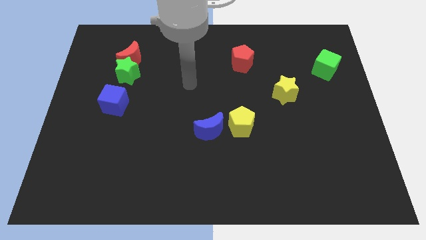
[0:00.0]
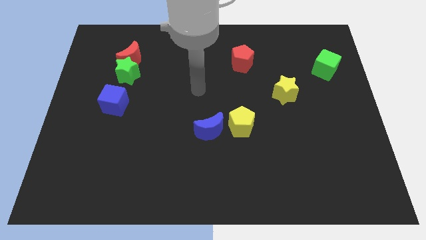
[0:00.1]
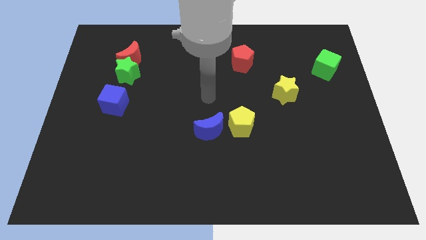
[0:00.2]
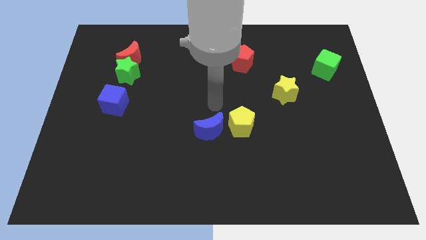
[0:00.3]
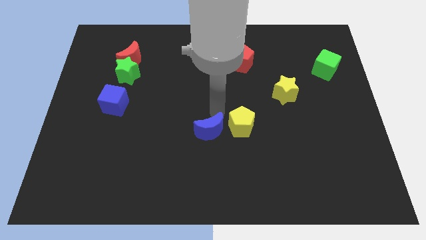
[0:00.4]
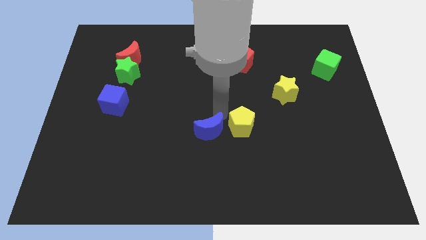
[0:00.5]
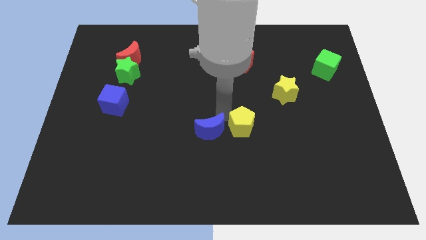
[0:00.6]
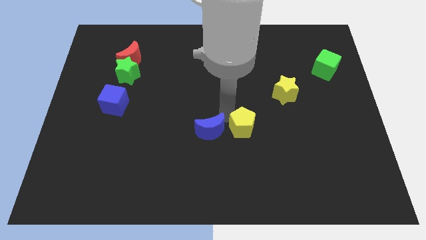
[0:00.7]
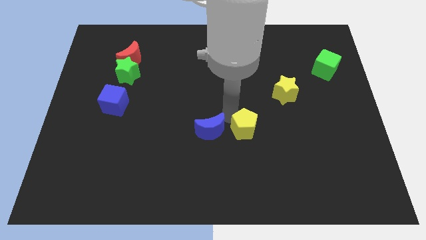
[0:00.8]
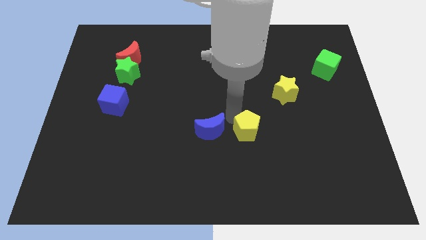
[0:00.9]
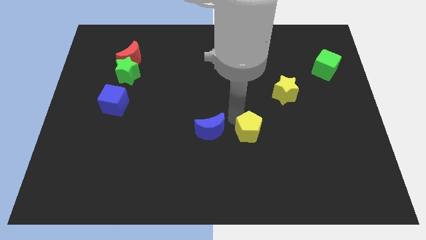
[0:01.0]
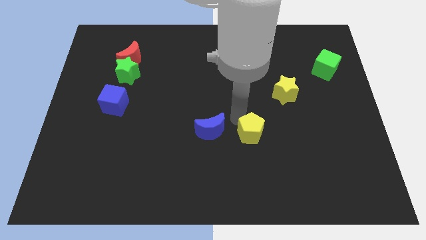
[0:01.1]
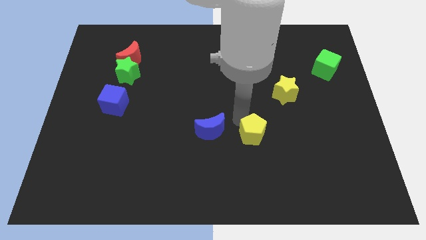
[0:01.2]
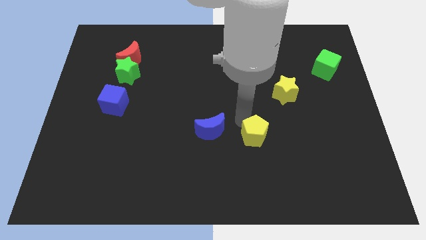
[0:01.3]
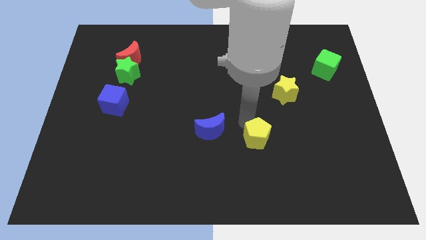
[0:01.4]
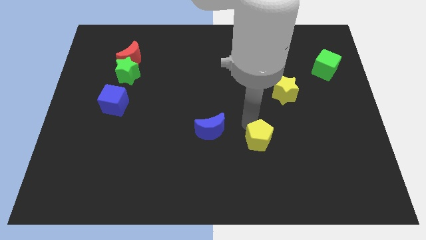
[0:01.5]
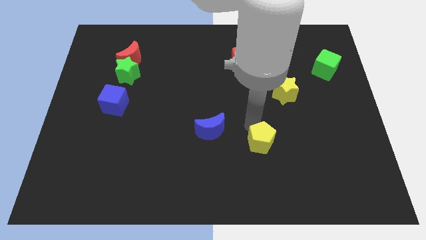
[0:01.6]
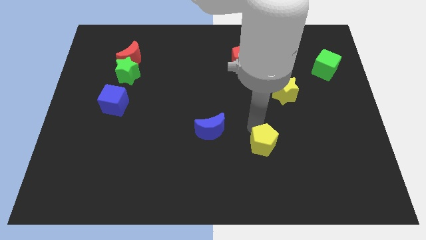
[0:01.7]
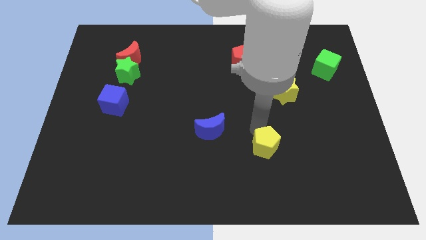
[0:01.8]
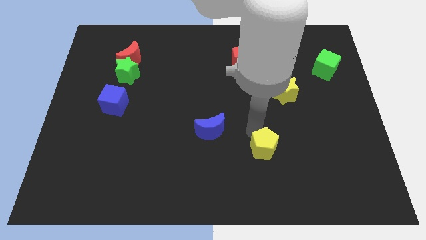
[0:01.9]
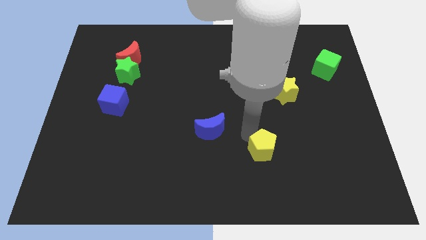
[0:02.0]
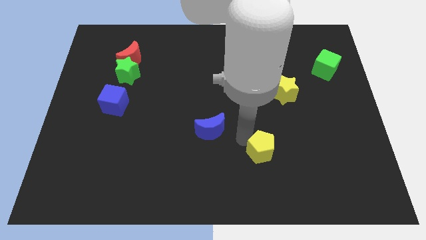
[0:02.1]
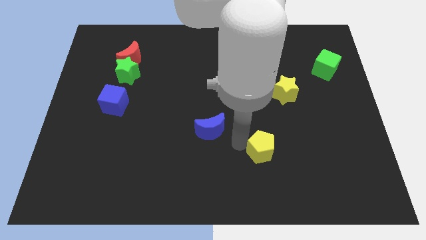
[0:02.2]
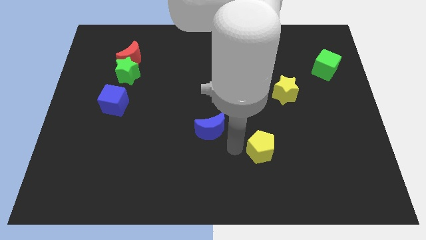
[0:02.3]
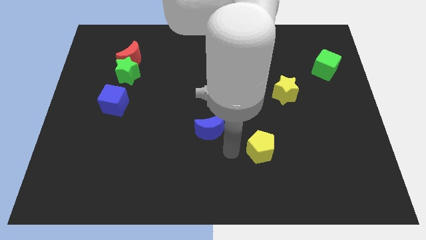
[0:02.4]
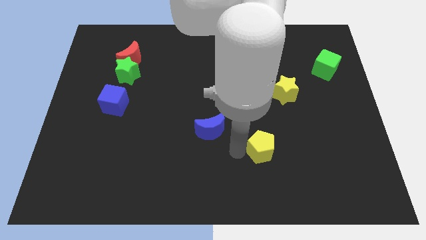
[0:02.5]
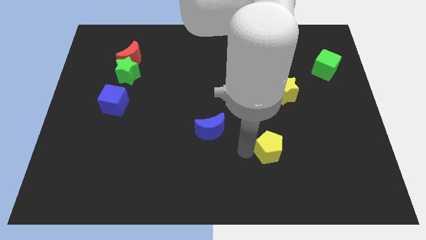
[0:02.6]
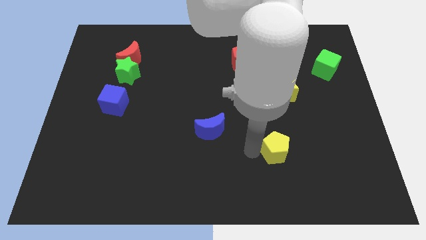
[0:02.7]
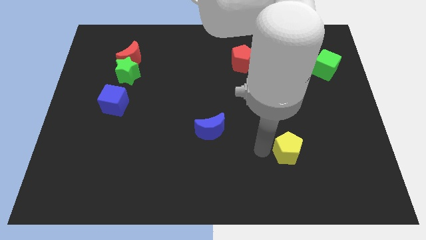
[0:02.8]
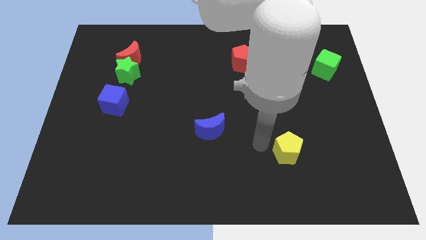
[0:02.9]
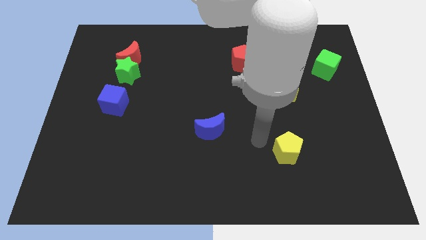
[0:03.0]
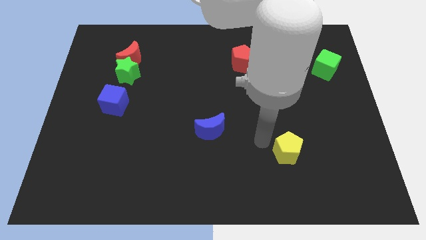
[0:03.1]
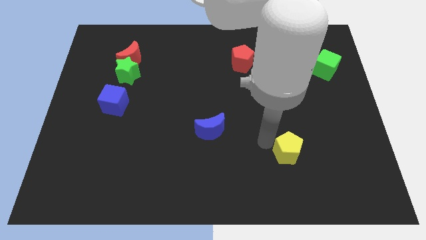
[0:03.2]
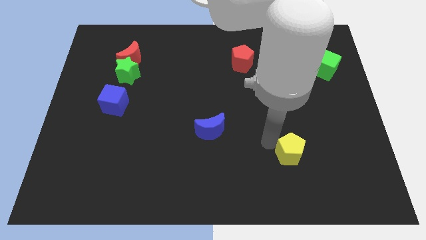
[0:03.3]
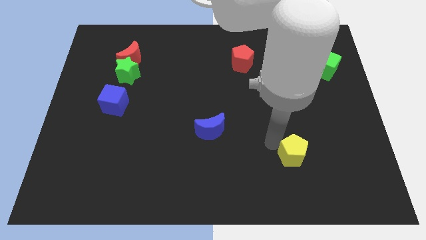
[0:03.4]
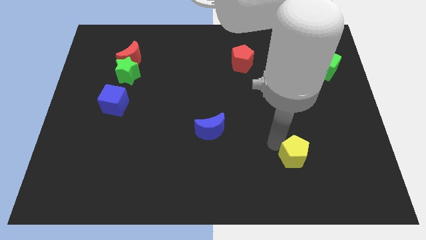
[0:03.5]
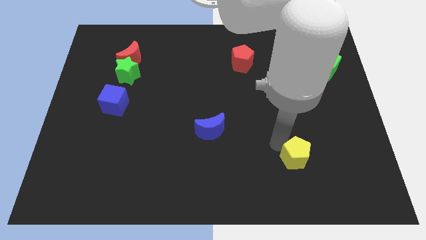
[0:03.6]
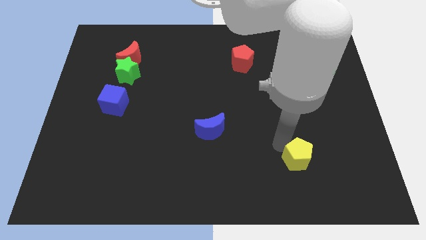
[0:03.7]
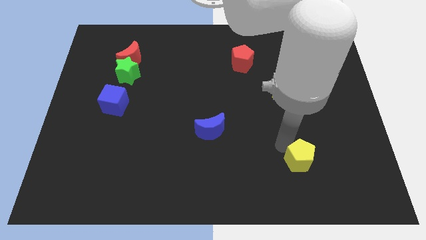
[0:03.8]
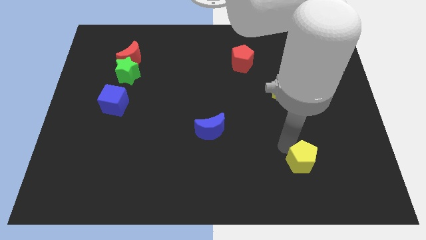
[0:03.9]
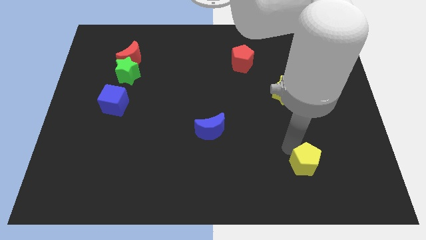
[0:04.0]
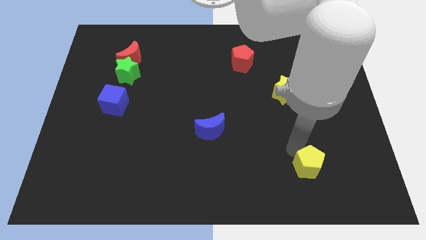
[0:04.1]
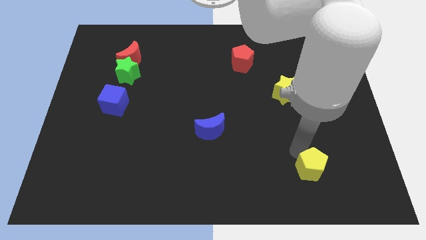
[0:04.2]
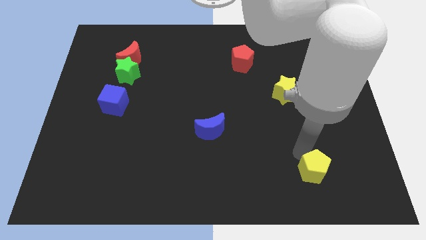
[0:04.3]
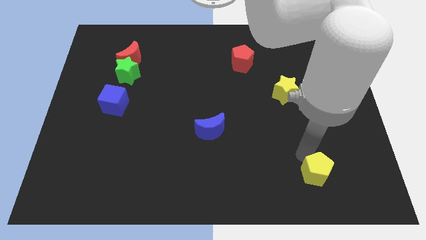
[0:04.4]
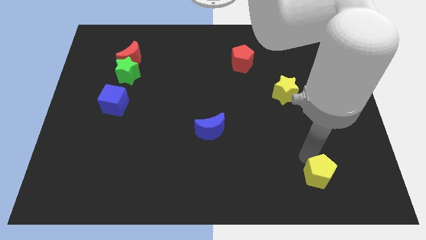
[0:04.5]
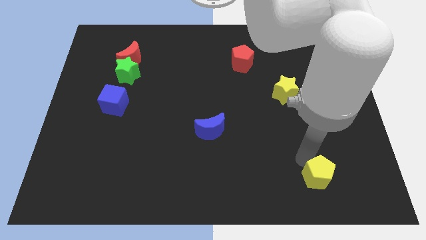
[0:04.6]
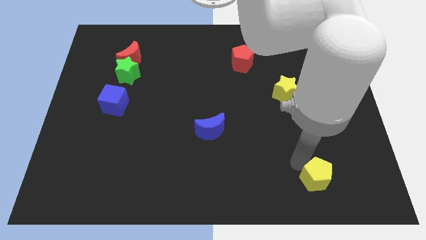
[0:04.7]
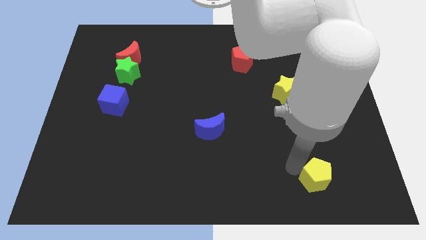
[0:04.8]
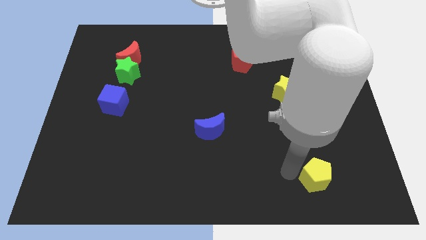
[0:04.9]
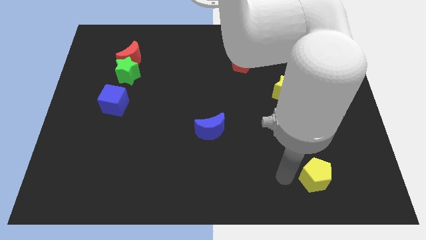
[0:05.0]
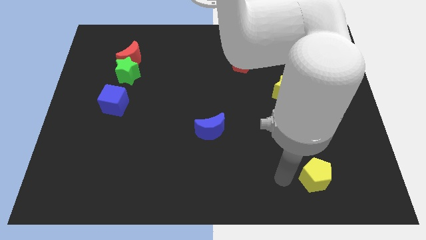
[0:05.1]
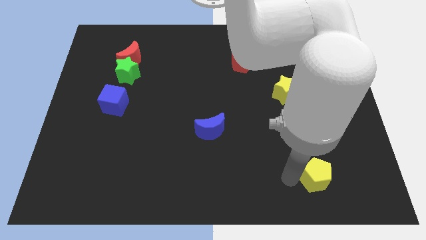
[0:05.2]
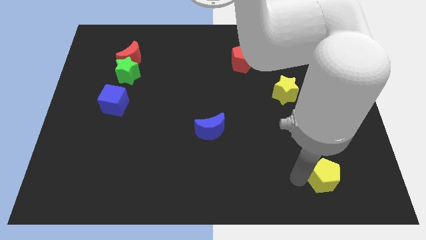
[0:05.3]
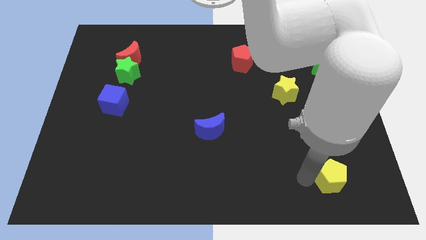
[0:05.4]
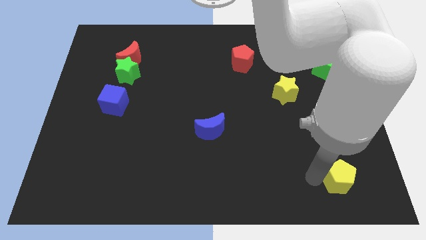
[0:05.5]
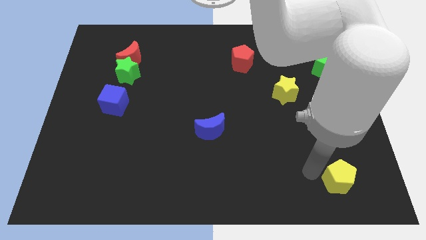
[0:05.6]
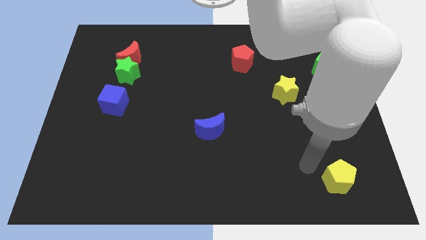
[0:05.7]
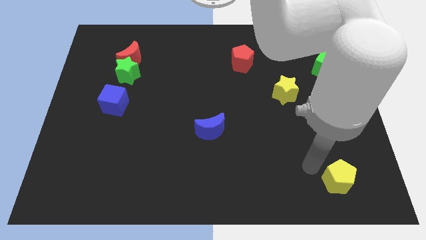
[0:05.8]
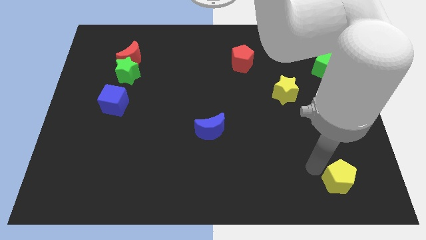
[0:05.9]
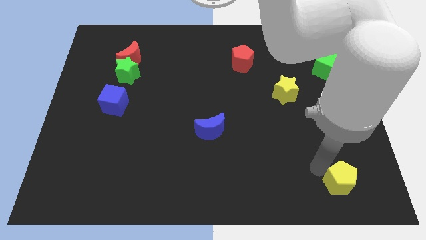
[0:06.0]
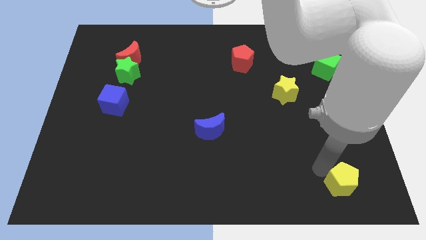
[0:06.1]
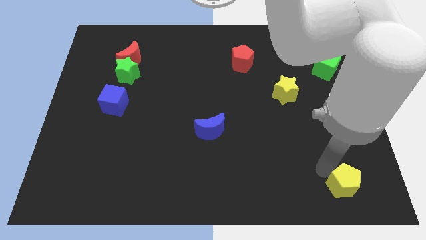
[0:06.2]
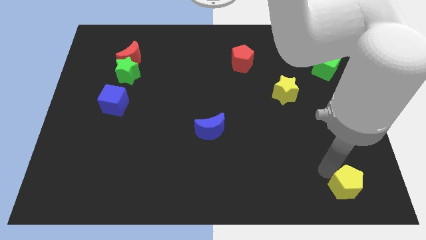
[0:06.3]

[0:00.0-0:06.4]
move the yellow pentagon to the bottom right corner
